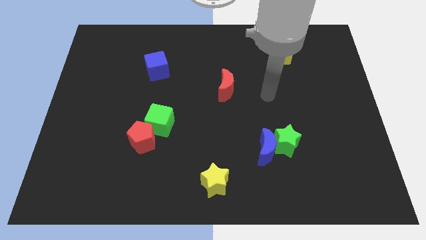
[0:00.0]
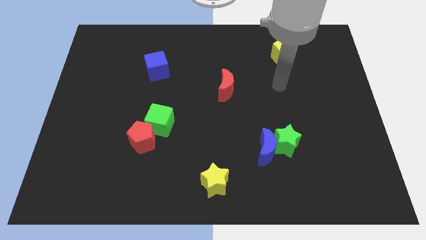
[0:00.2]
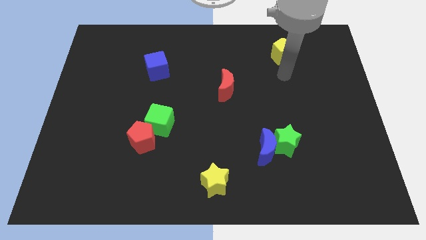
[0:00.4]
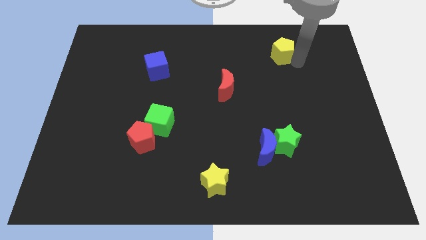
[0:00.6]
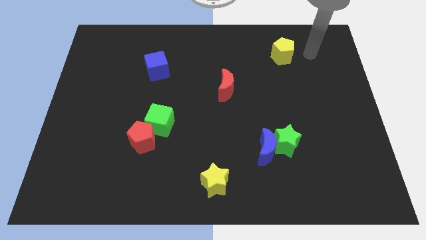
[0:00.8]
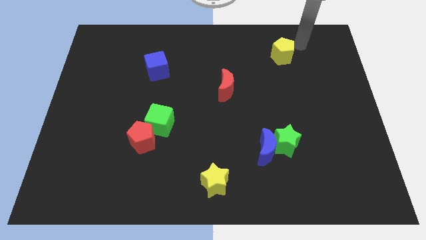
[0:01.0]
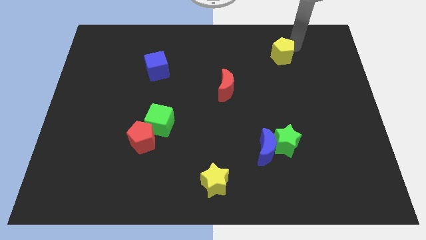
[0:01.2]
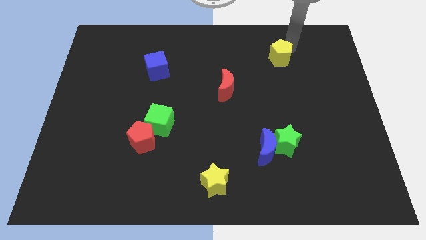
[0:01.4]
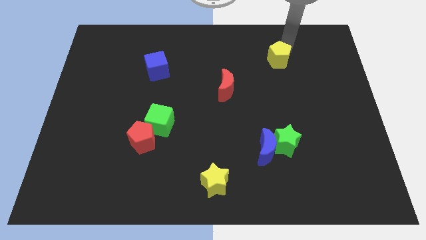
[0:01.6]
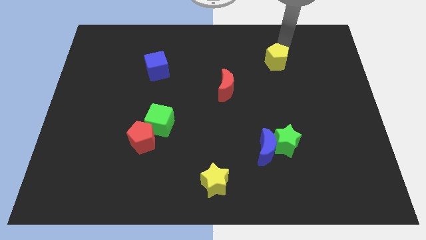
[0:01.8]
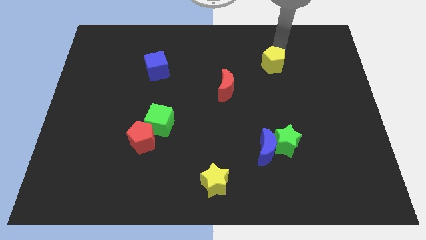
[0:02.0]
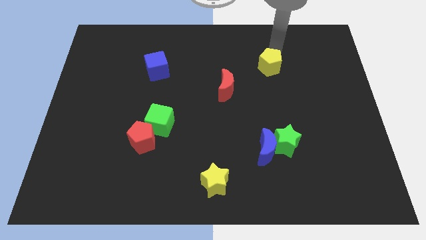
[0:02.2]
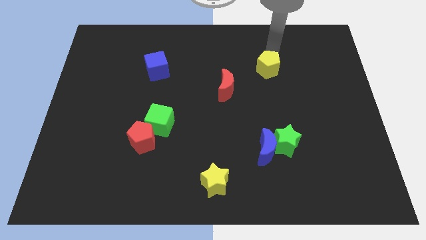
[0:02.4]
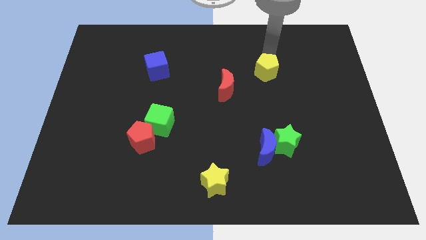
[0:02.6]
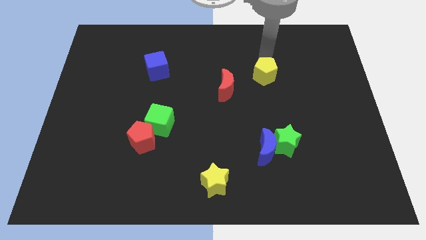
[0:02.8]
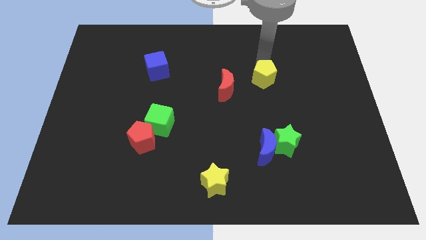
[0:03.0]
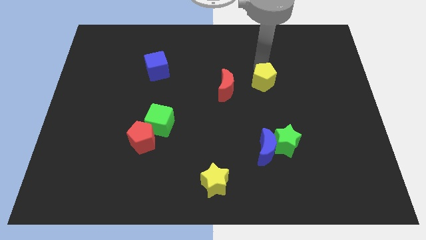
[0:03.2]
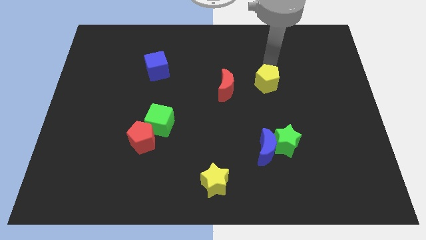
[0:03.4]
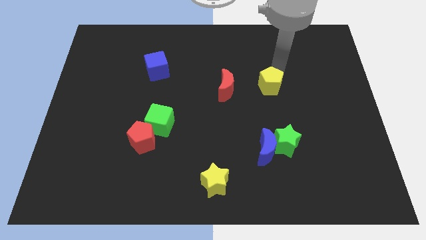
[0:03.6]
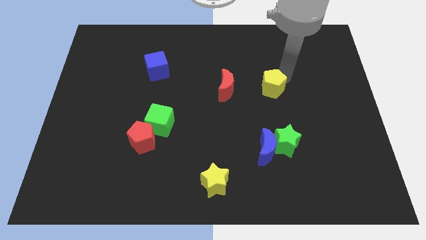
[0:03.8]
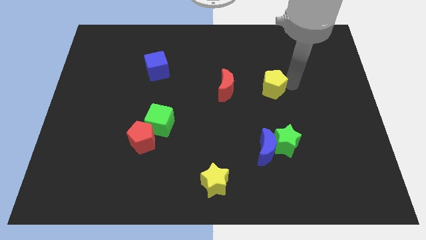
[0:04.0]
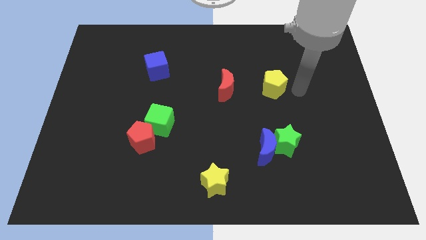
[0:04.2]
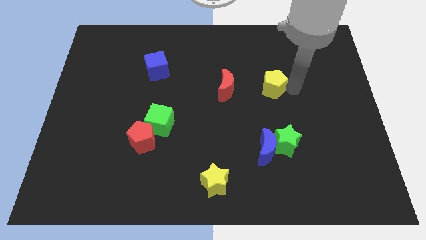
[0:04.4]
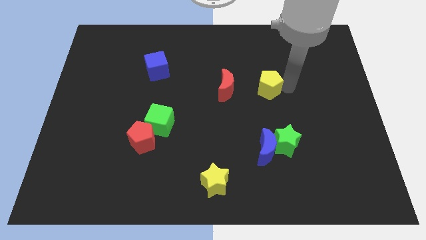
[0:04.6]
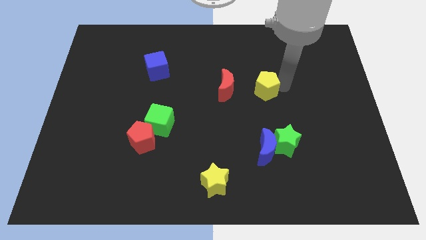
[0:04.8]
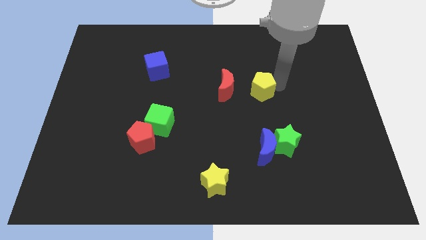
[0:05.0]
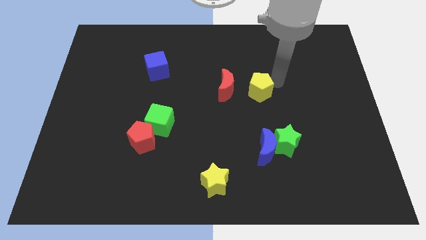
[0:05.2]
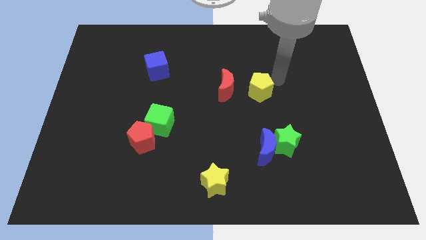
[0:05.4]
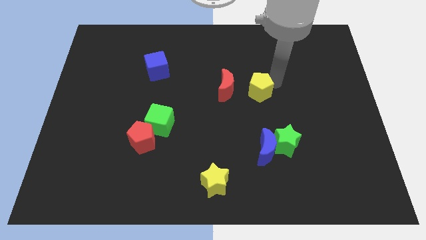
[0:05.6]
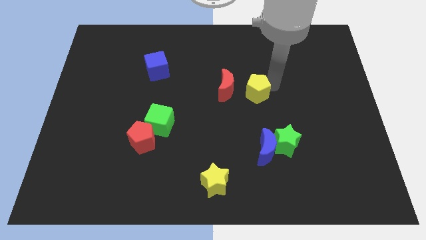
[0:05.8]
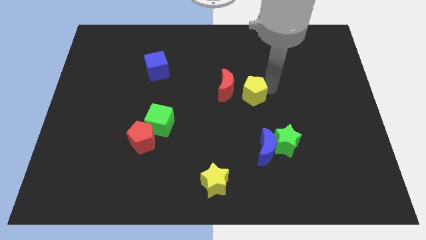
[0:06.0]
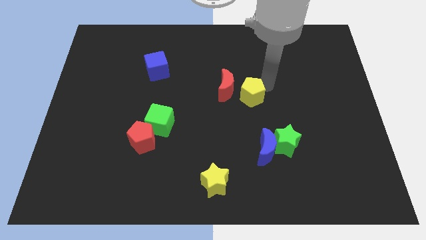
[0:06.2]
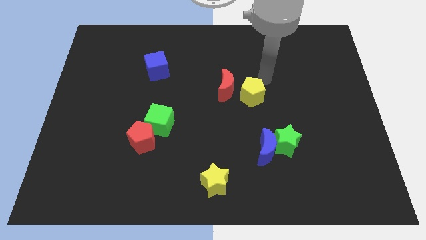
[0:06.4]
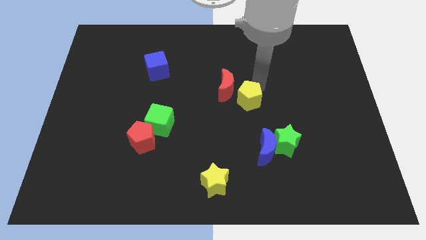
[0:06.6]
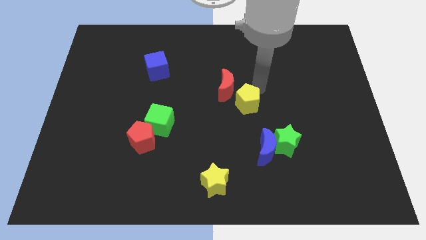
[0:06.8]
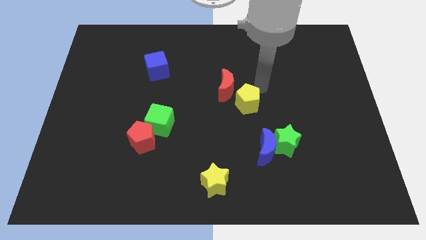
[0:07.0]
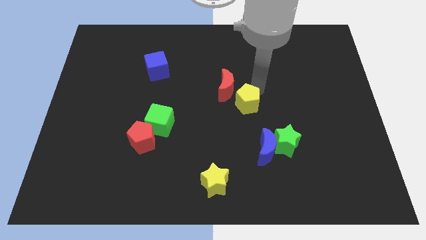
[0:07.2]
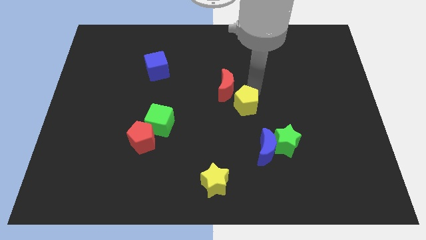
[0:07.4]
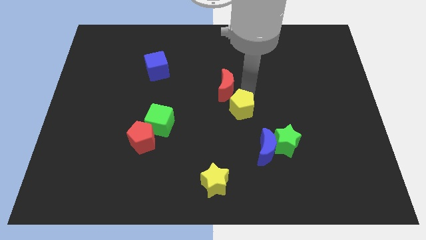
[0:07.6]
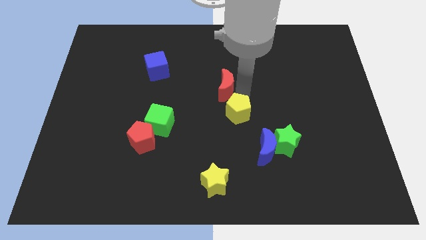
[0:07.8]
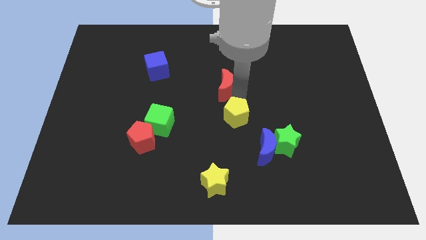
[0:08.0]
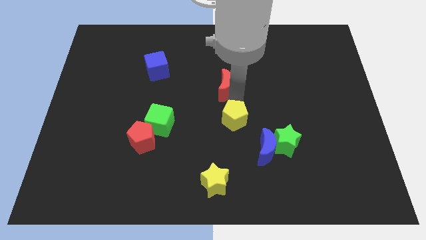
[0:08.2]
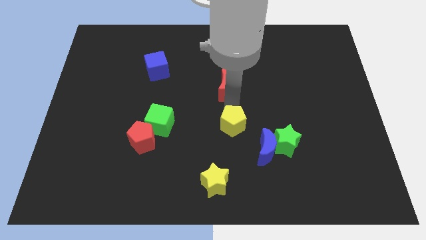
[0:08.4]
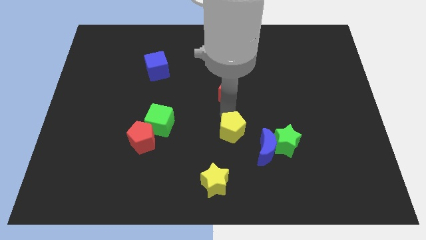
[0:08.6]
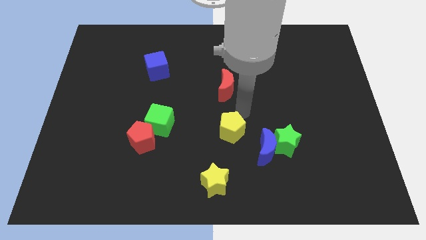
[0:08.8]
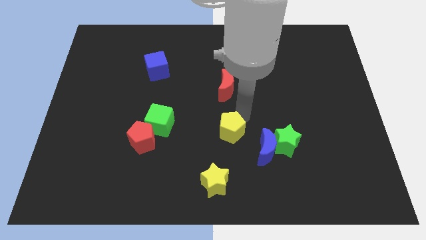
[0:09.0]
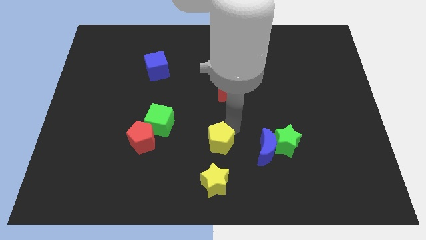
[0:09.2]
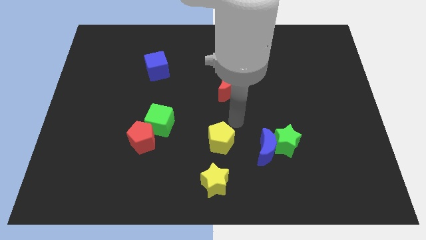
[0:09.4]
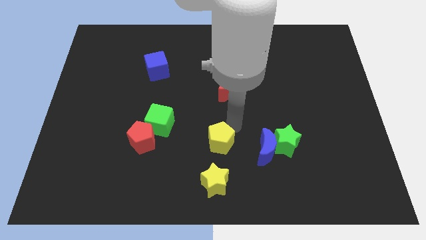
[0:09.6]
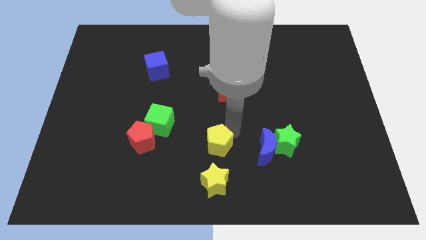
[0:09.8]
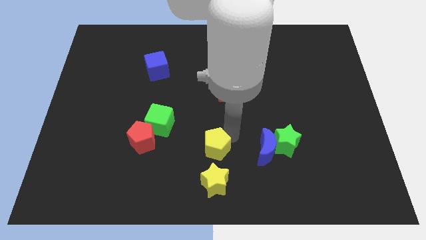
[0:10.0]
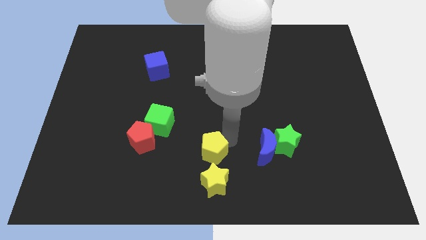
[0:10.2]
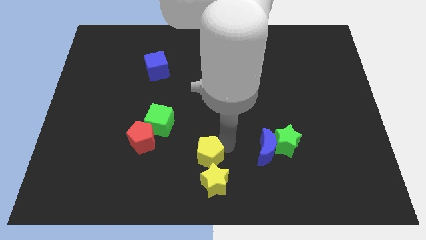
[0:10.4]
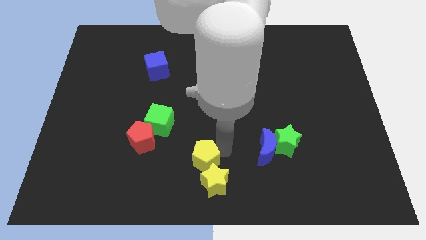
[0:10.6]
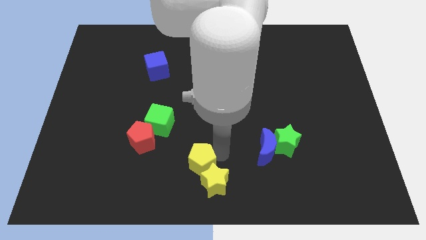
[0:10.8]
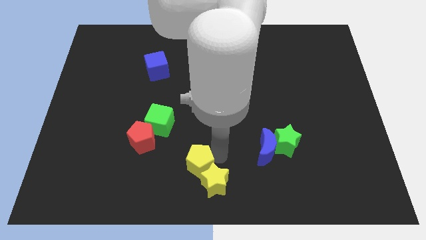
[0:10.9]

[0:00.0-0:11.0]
push the yellow pentagon just left of the yellow star
